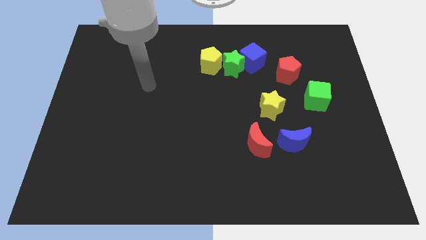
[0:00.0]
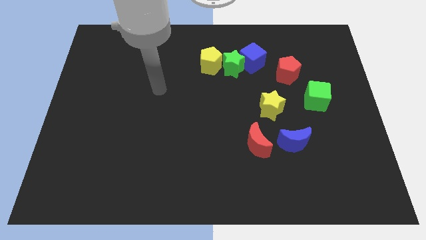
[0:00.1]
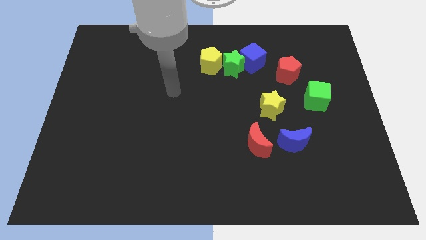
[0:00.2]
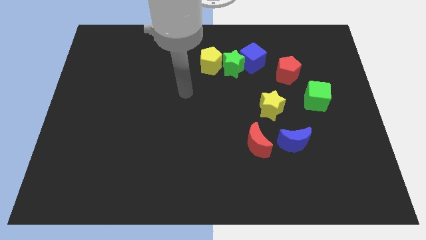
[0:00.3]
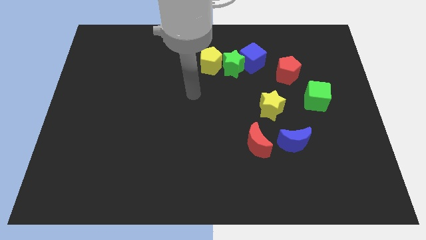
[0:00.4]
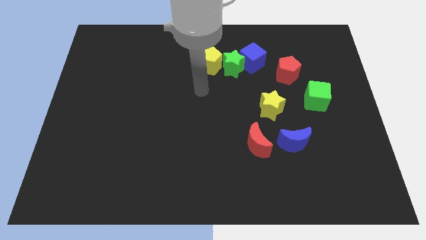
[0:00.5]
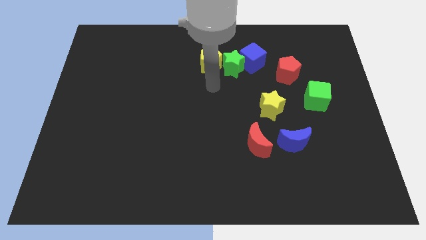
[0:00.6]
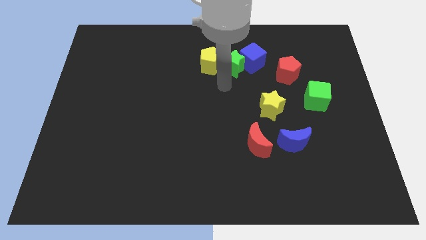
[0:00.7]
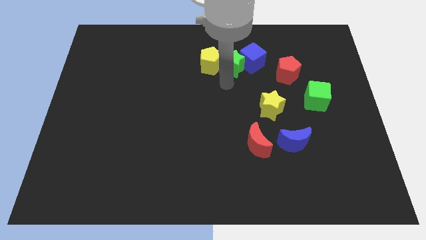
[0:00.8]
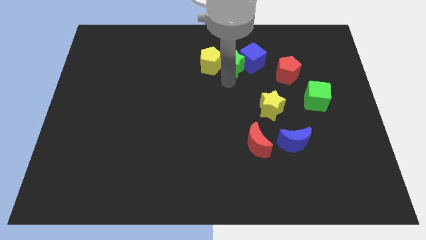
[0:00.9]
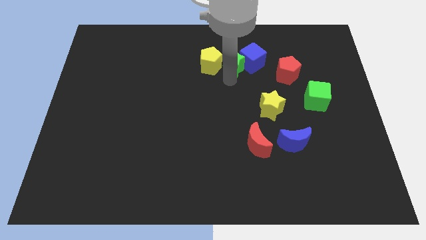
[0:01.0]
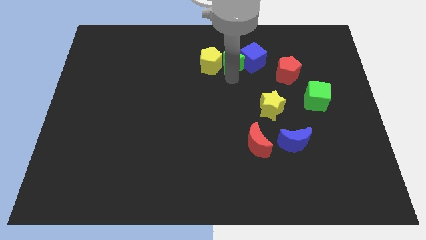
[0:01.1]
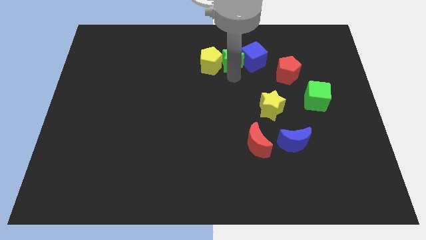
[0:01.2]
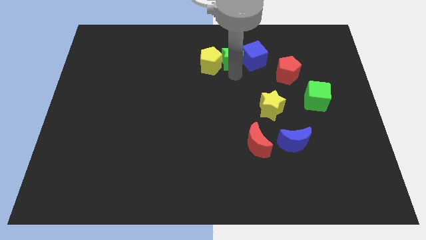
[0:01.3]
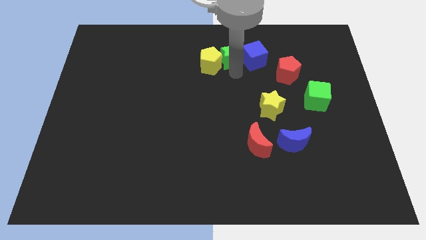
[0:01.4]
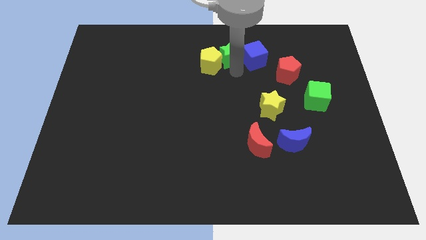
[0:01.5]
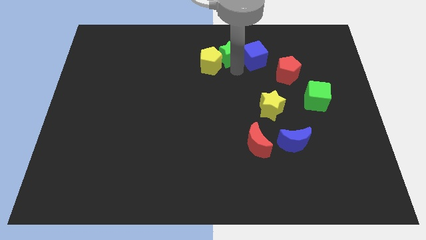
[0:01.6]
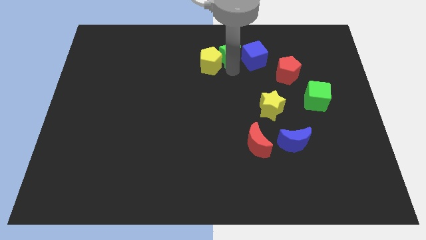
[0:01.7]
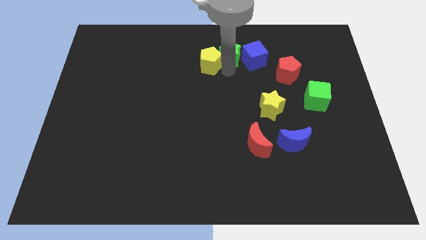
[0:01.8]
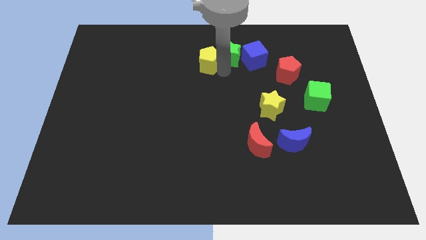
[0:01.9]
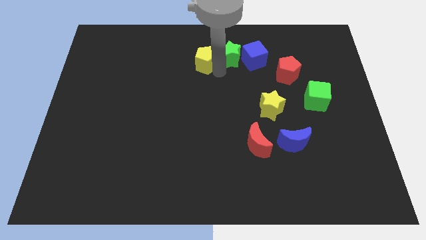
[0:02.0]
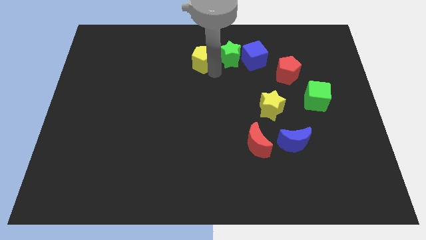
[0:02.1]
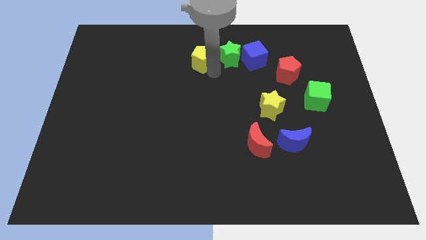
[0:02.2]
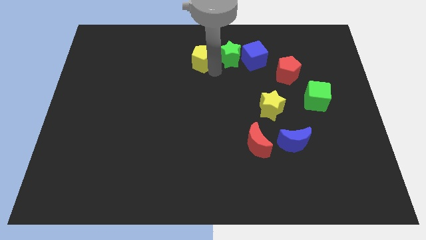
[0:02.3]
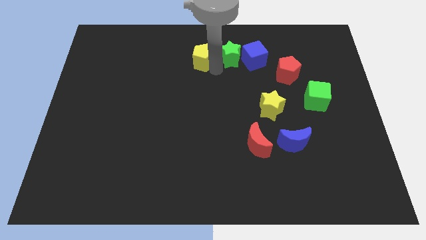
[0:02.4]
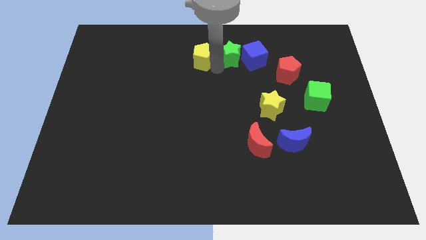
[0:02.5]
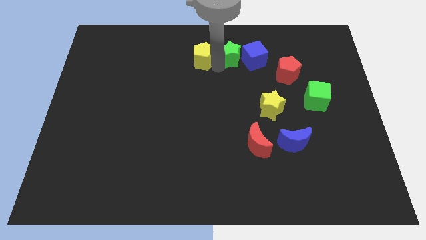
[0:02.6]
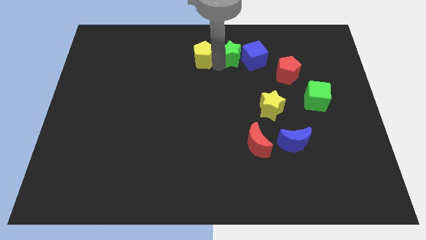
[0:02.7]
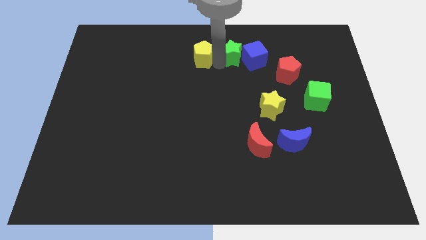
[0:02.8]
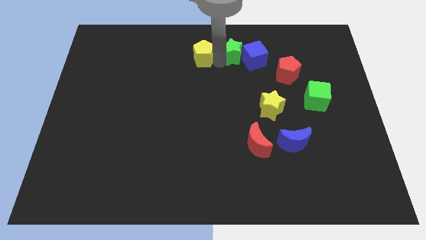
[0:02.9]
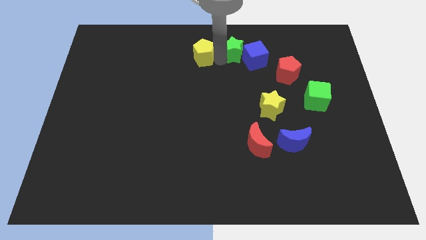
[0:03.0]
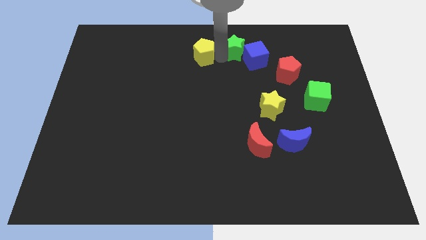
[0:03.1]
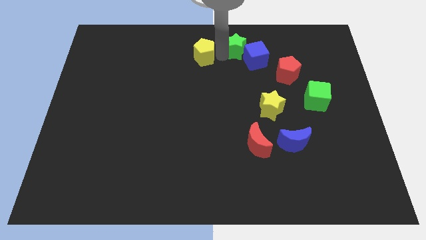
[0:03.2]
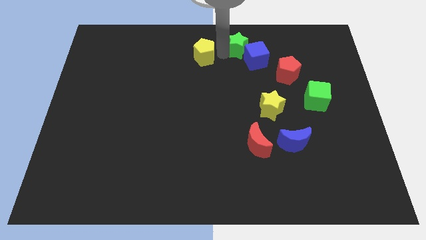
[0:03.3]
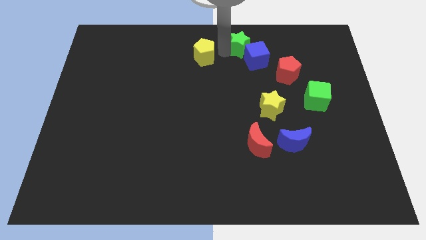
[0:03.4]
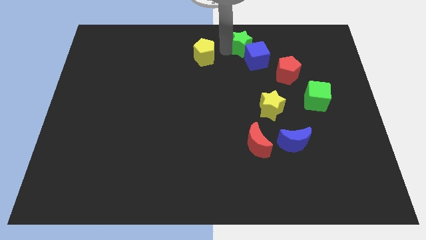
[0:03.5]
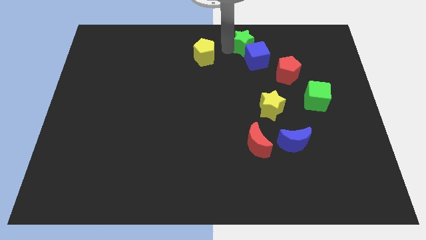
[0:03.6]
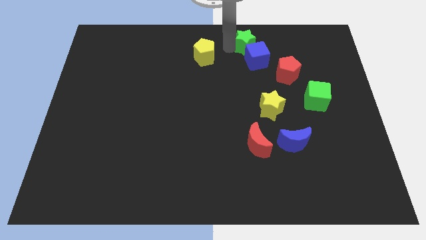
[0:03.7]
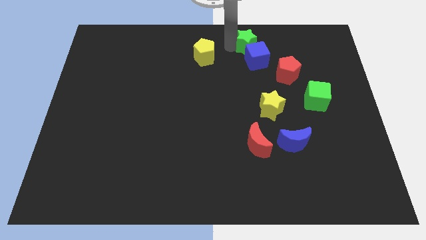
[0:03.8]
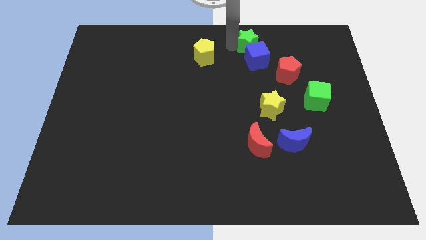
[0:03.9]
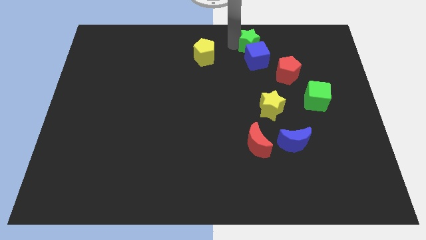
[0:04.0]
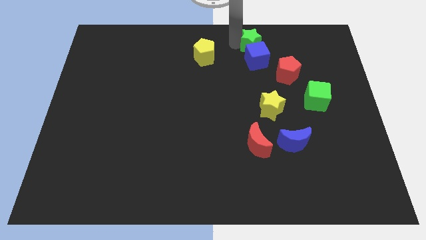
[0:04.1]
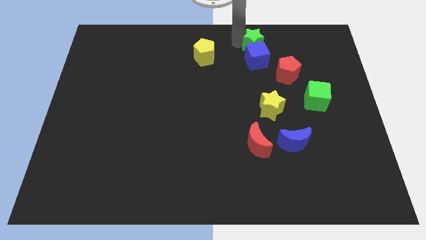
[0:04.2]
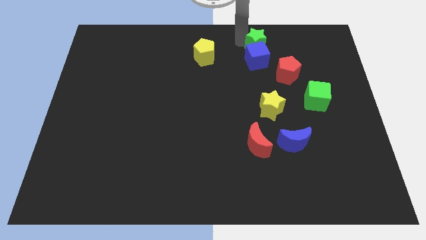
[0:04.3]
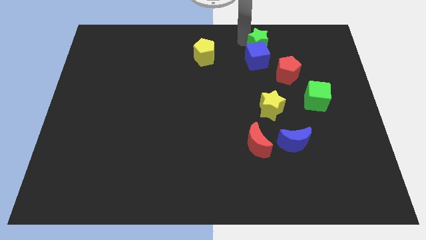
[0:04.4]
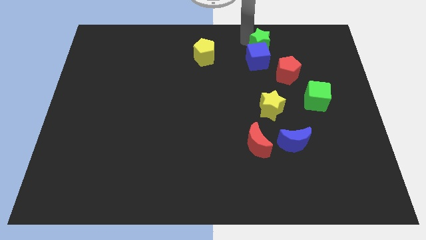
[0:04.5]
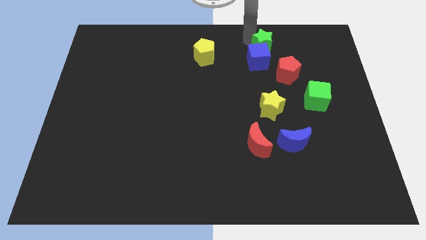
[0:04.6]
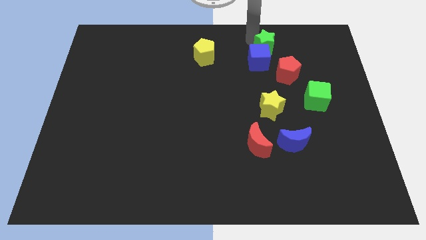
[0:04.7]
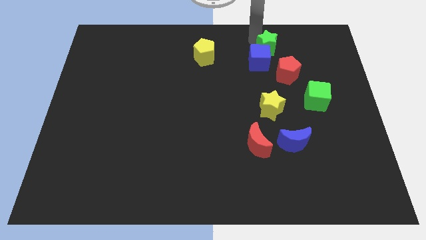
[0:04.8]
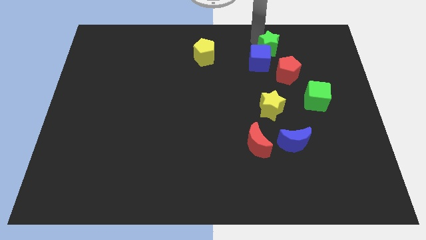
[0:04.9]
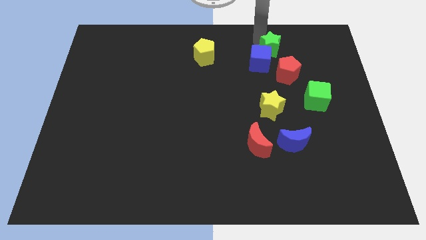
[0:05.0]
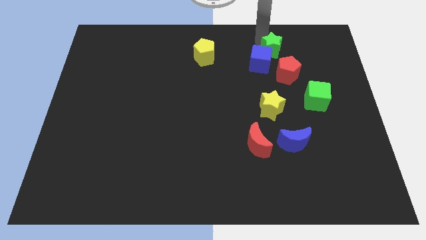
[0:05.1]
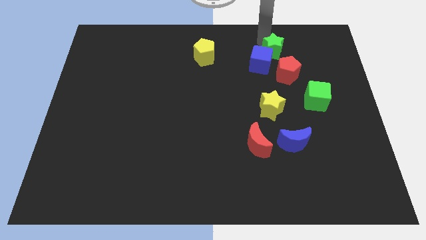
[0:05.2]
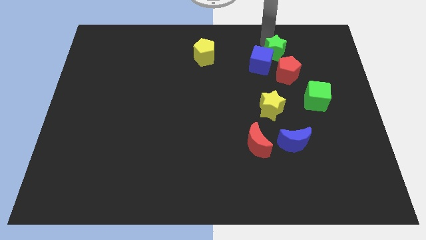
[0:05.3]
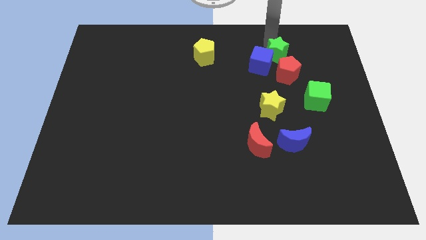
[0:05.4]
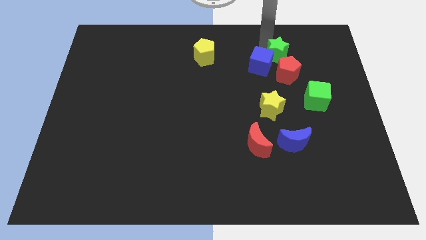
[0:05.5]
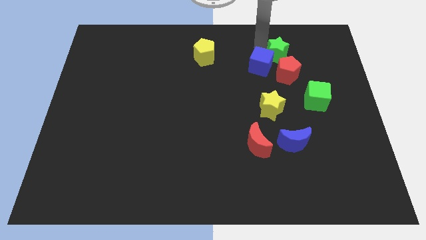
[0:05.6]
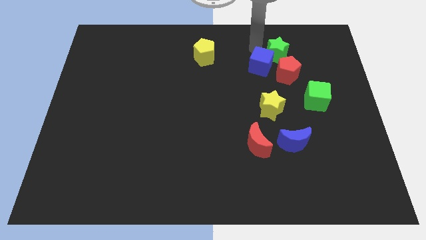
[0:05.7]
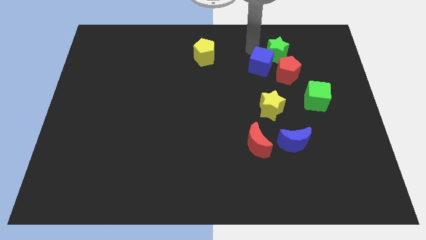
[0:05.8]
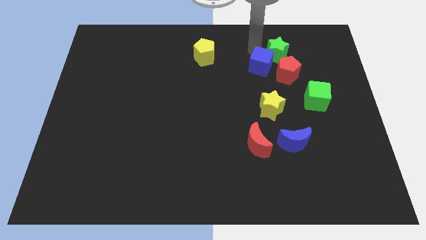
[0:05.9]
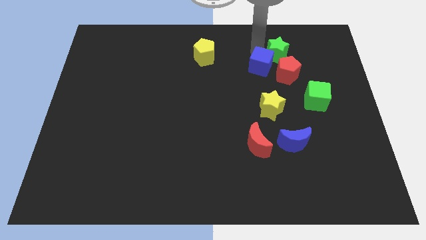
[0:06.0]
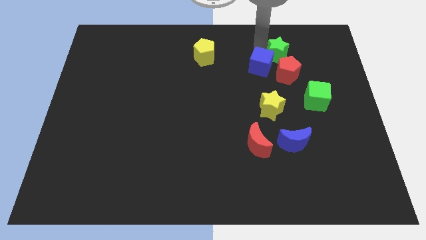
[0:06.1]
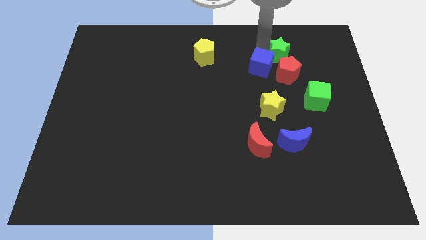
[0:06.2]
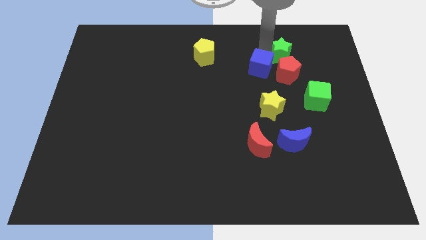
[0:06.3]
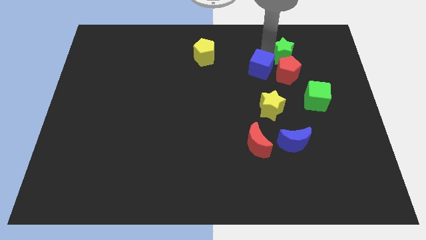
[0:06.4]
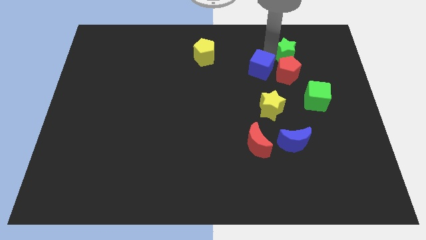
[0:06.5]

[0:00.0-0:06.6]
push the green star diagonally up and to the right of the red pentagon

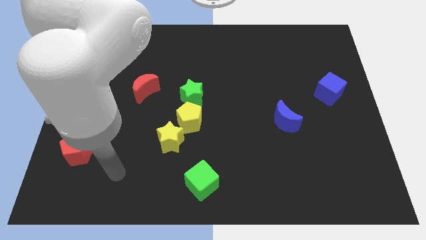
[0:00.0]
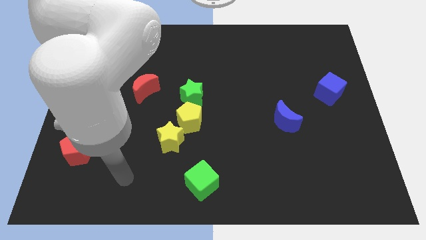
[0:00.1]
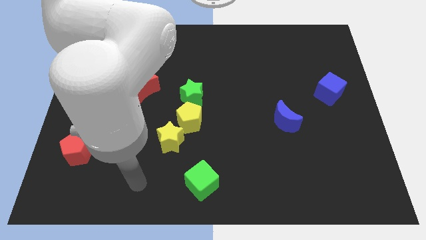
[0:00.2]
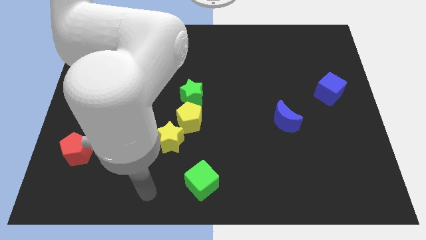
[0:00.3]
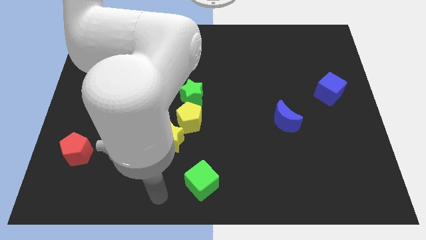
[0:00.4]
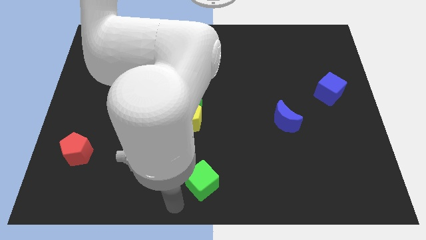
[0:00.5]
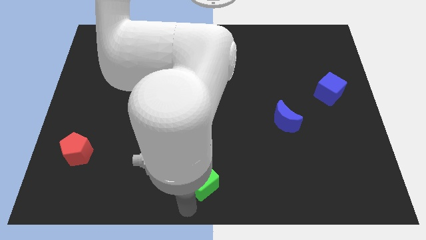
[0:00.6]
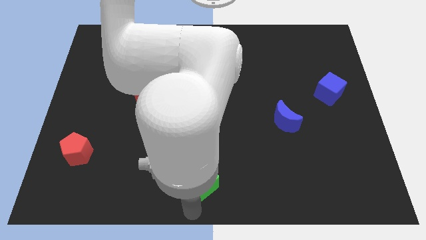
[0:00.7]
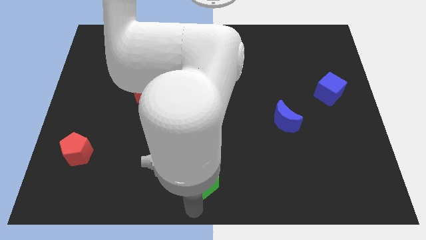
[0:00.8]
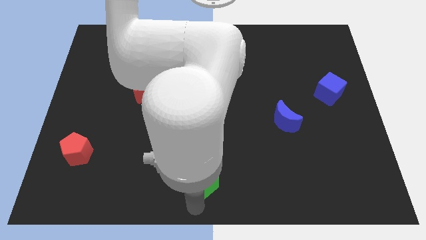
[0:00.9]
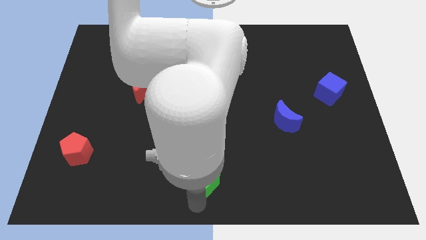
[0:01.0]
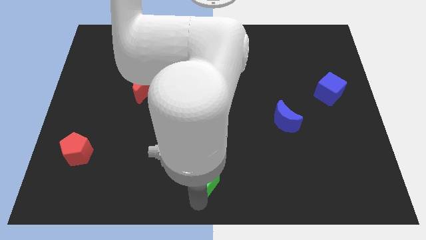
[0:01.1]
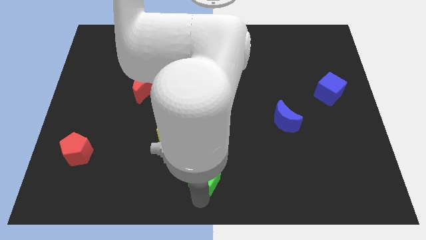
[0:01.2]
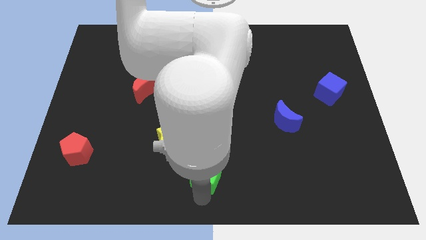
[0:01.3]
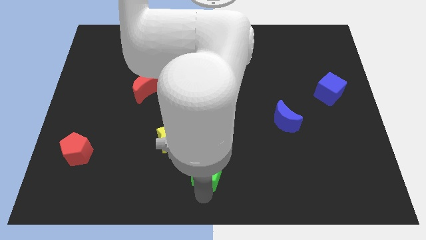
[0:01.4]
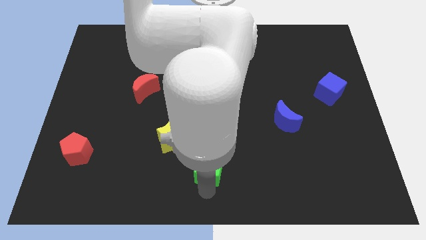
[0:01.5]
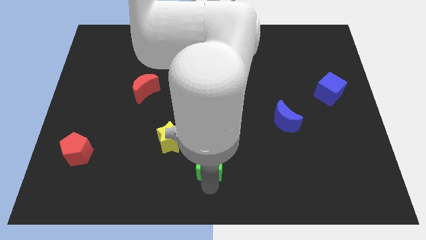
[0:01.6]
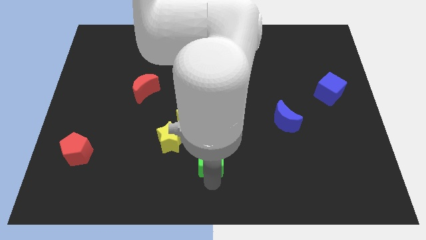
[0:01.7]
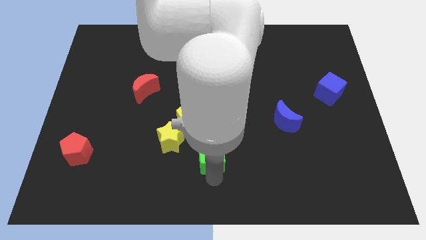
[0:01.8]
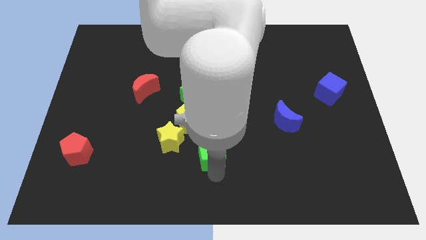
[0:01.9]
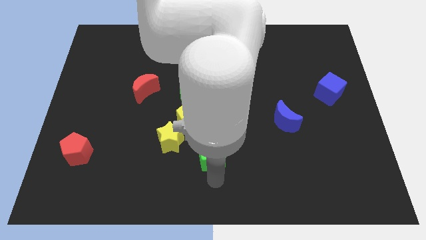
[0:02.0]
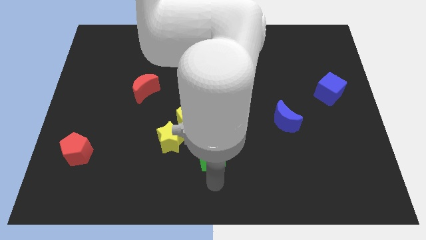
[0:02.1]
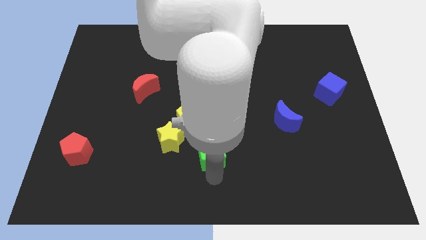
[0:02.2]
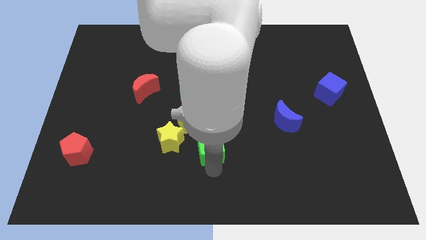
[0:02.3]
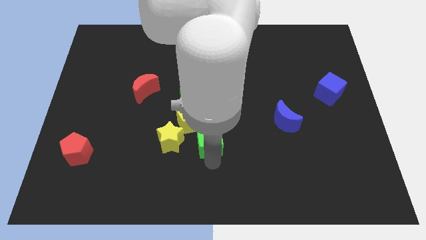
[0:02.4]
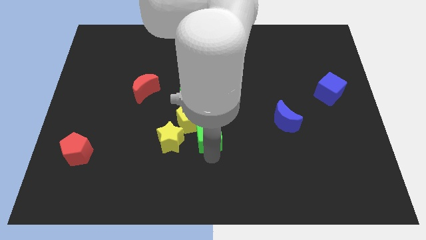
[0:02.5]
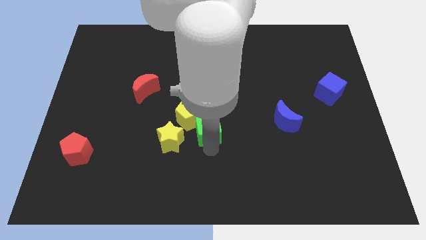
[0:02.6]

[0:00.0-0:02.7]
slide the green cube to the top right of the yellow star
